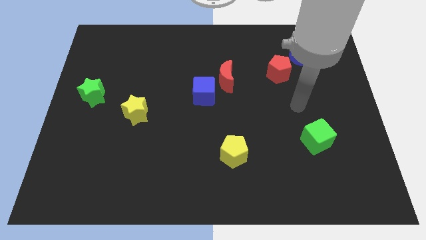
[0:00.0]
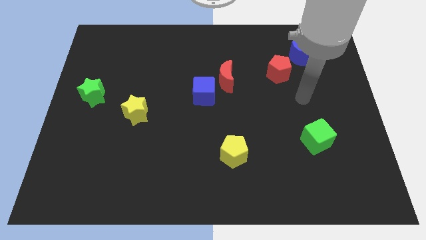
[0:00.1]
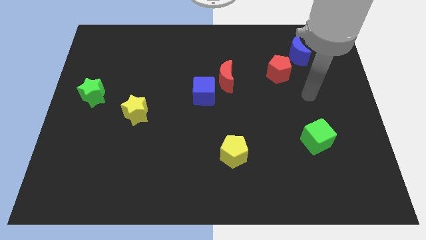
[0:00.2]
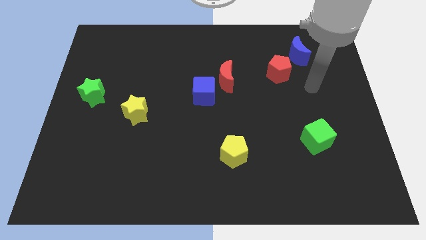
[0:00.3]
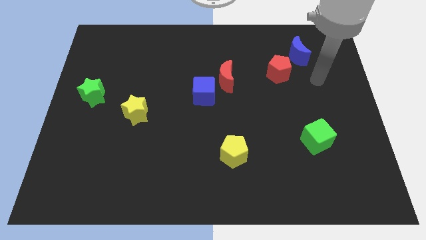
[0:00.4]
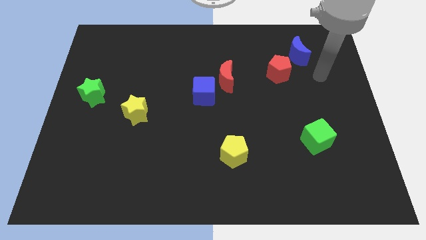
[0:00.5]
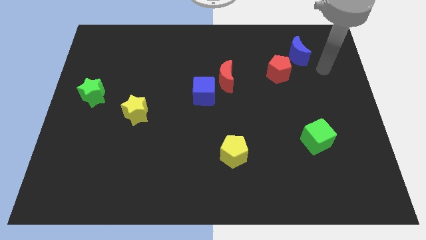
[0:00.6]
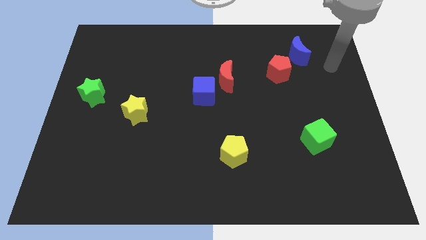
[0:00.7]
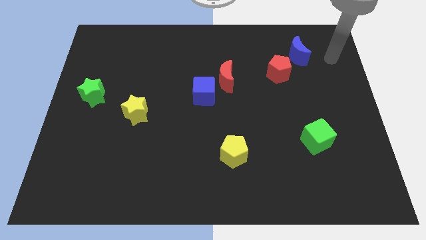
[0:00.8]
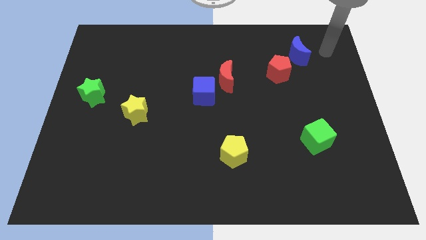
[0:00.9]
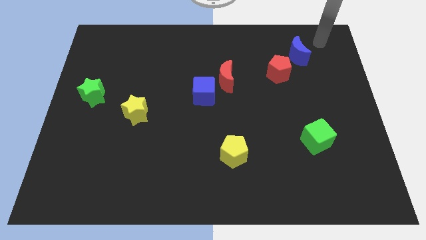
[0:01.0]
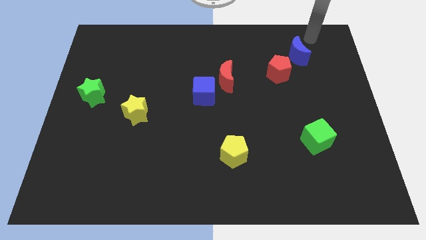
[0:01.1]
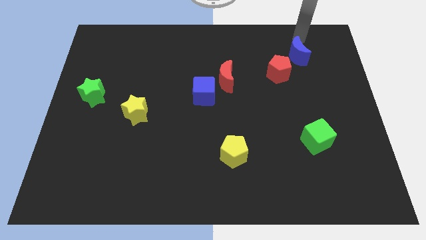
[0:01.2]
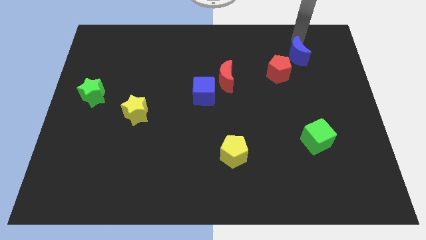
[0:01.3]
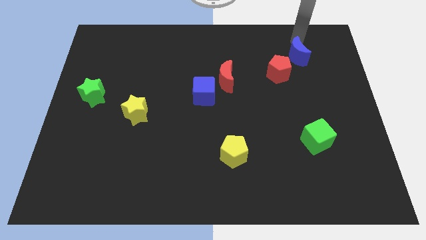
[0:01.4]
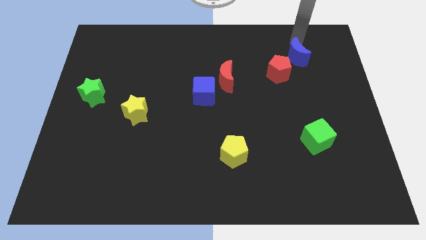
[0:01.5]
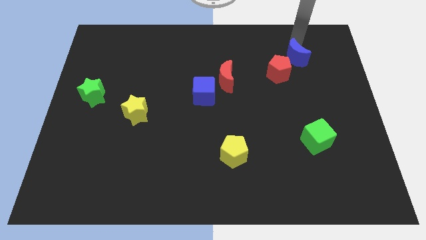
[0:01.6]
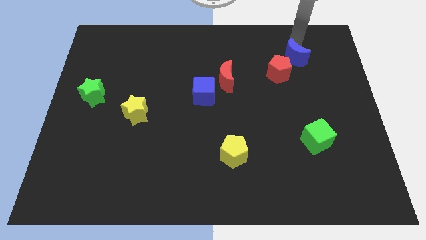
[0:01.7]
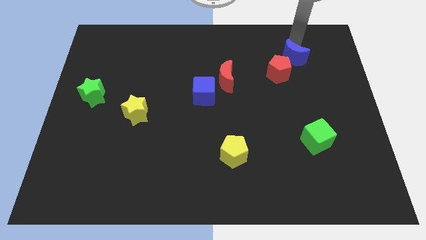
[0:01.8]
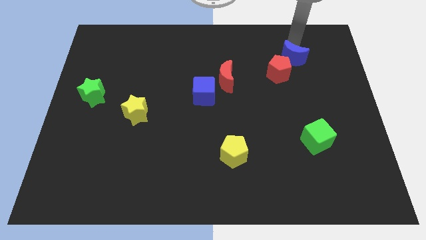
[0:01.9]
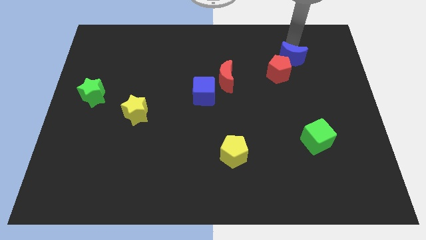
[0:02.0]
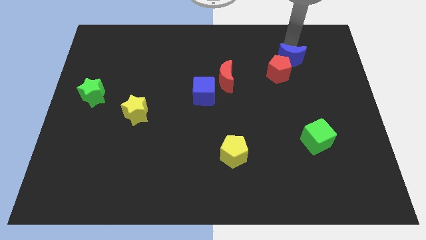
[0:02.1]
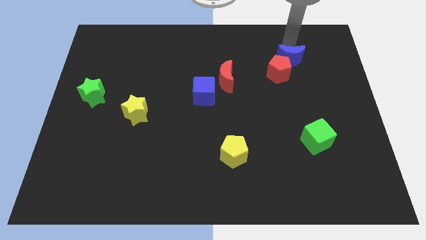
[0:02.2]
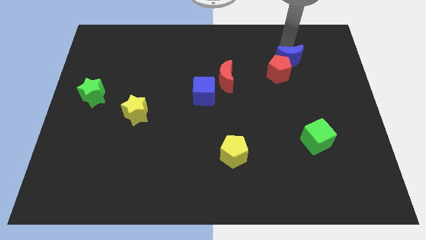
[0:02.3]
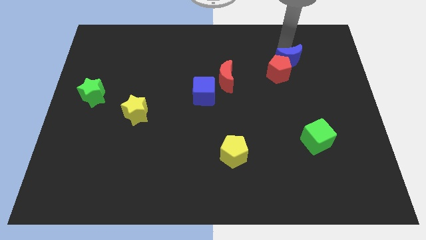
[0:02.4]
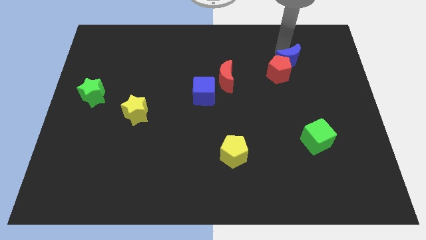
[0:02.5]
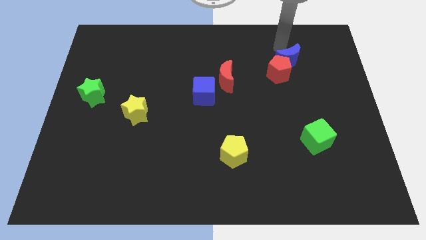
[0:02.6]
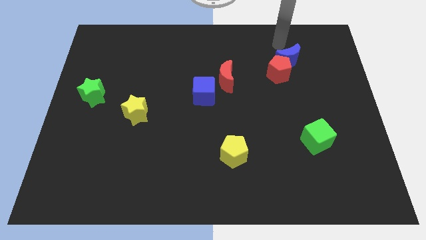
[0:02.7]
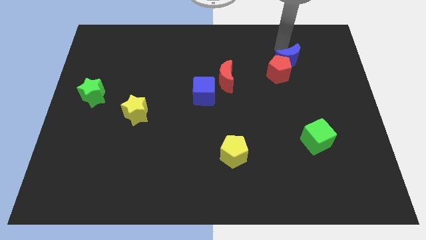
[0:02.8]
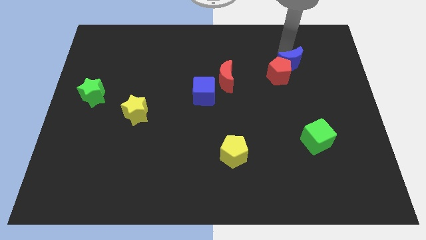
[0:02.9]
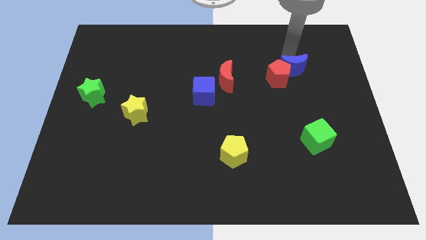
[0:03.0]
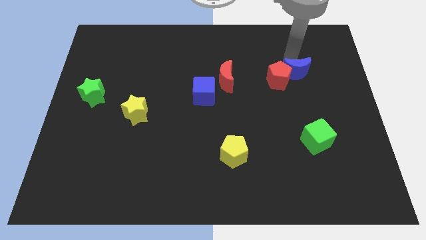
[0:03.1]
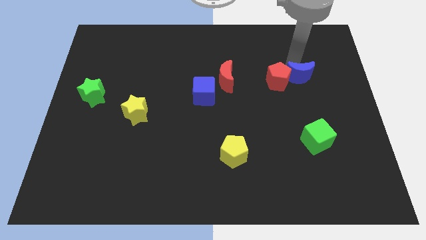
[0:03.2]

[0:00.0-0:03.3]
slightly slide the blue moon down

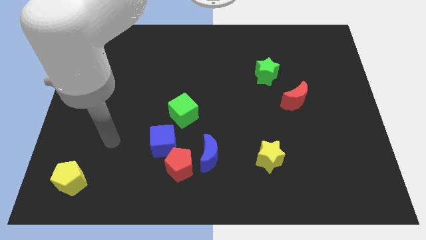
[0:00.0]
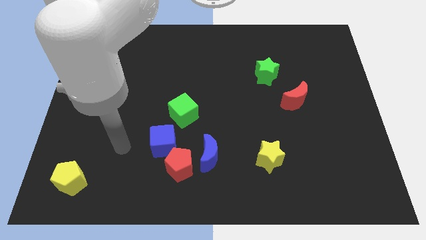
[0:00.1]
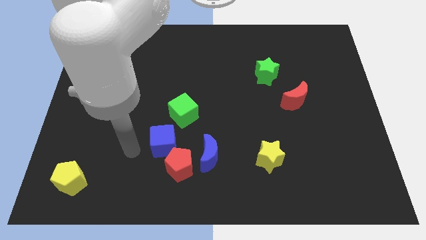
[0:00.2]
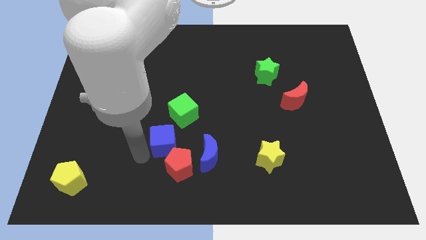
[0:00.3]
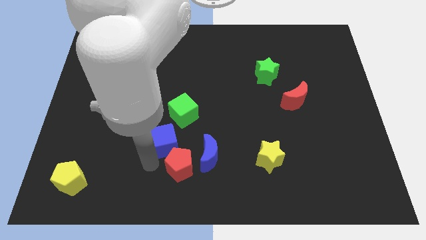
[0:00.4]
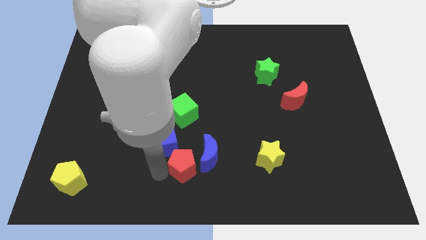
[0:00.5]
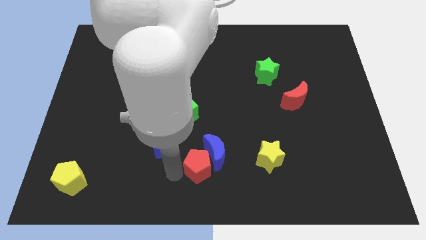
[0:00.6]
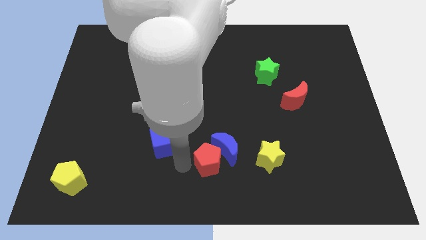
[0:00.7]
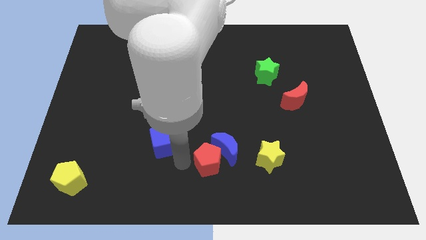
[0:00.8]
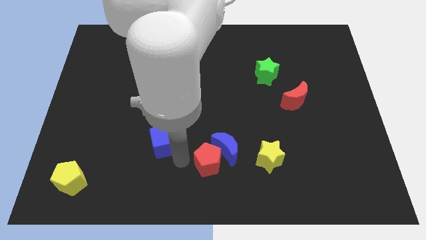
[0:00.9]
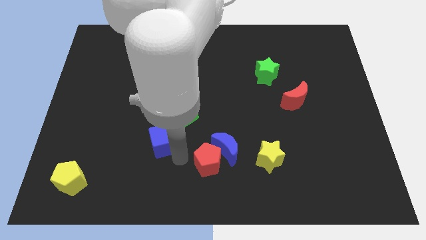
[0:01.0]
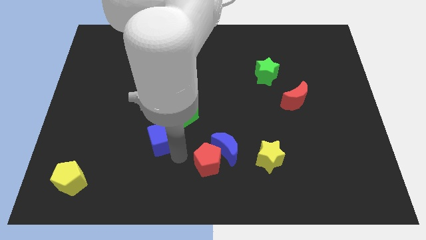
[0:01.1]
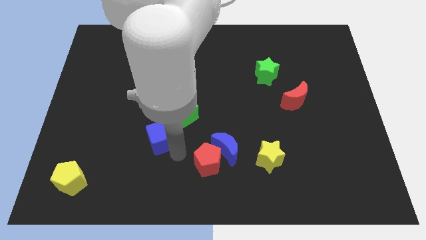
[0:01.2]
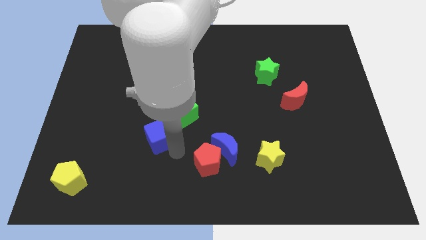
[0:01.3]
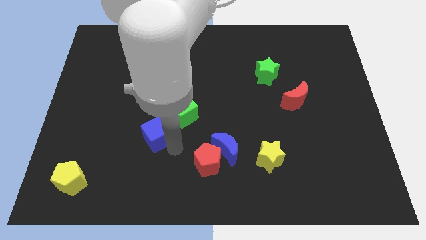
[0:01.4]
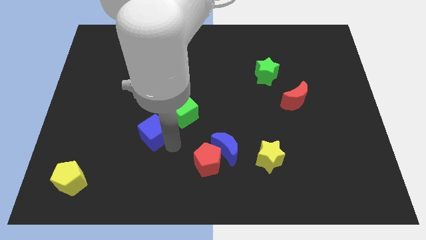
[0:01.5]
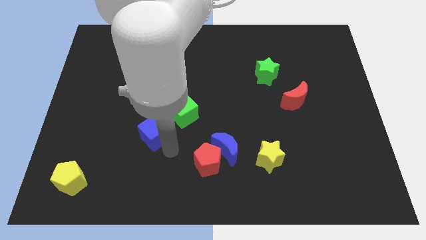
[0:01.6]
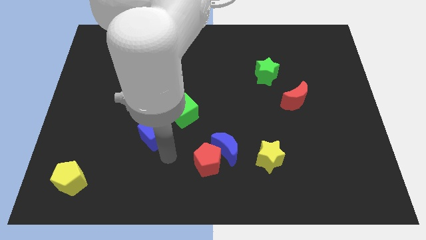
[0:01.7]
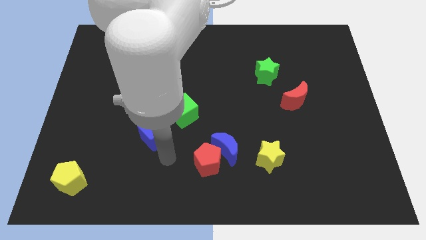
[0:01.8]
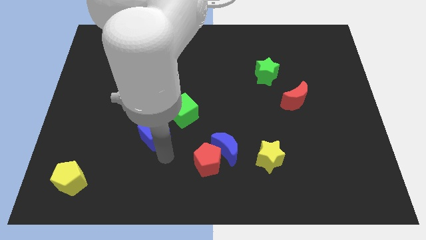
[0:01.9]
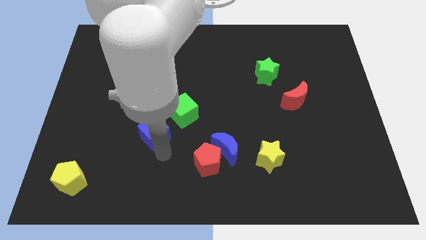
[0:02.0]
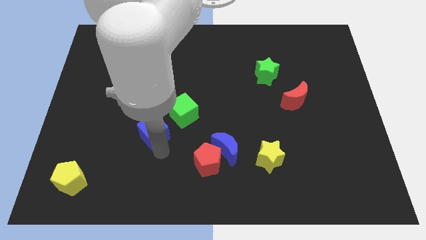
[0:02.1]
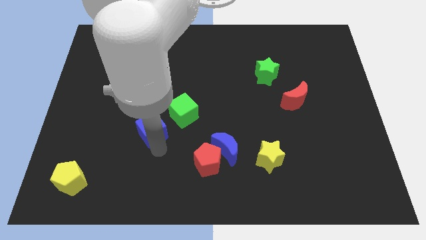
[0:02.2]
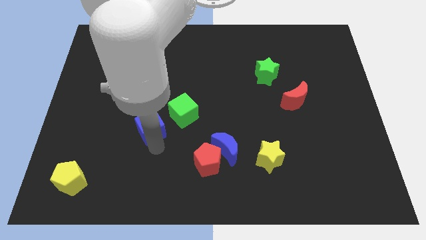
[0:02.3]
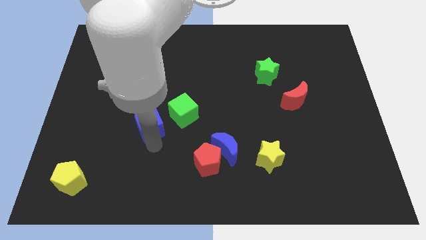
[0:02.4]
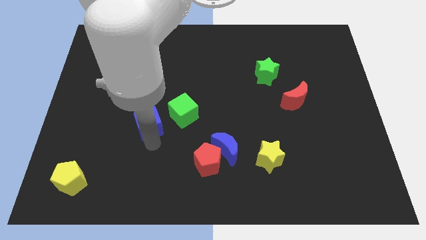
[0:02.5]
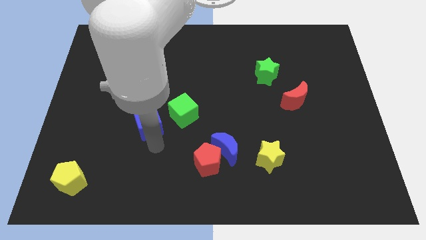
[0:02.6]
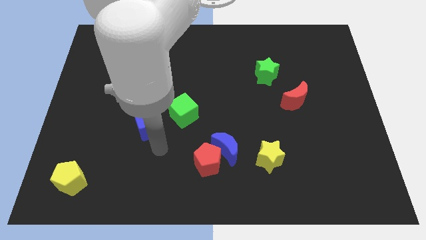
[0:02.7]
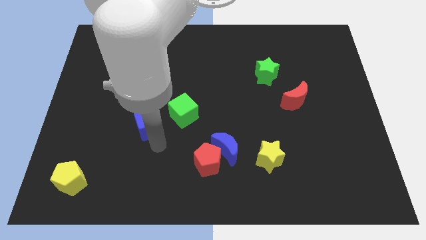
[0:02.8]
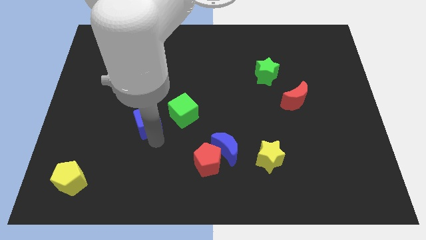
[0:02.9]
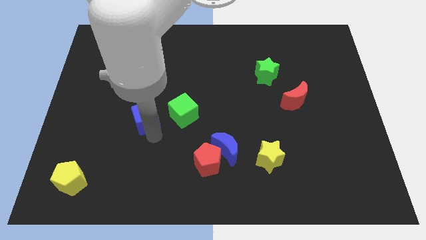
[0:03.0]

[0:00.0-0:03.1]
slightly move the blue cube upwards and to the left diagonally

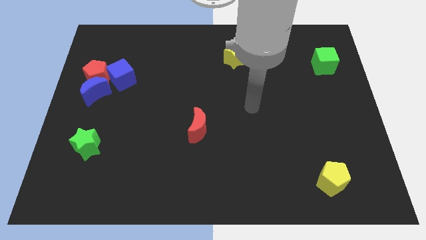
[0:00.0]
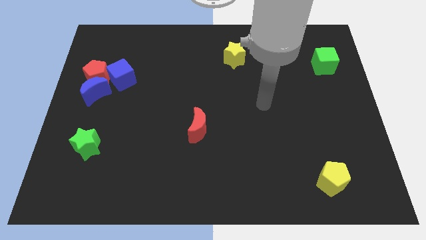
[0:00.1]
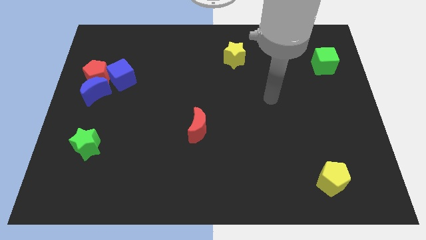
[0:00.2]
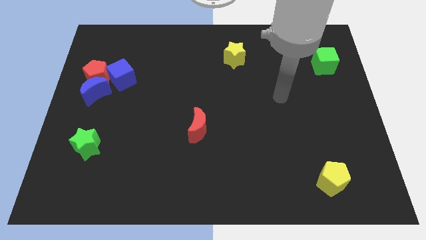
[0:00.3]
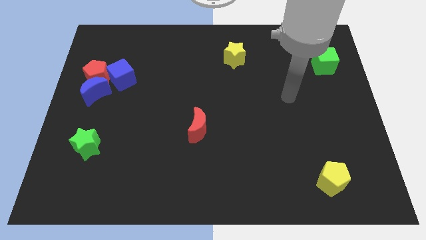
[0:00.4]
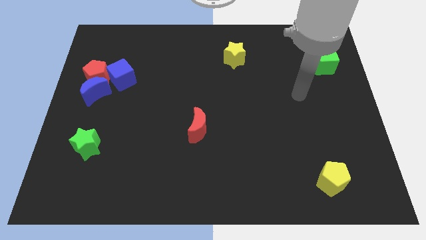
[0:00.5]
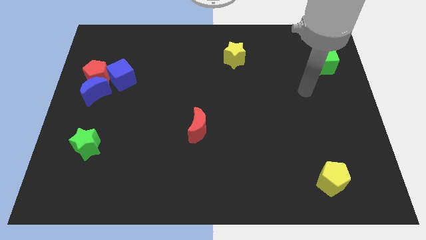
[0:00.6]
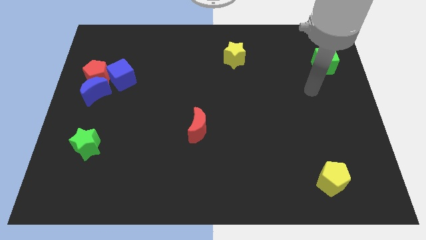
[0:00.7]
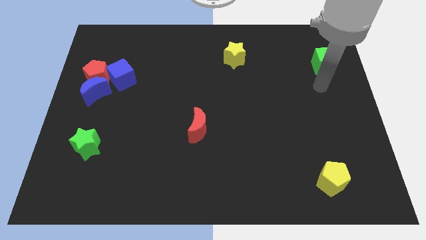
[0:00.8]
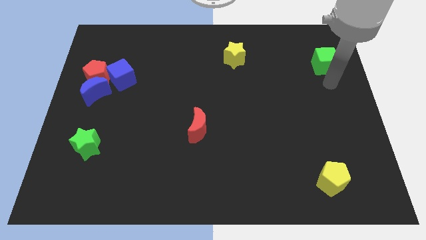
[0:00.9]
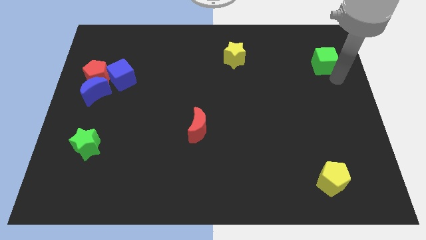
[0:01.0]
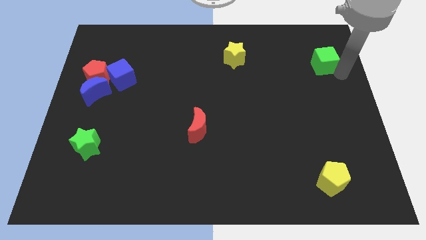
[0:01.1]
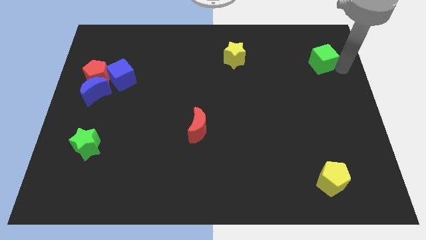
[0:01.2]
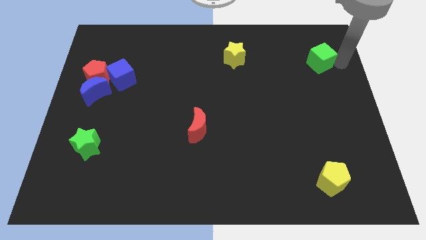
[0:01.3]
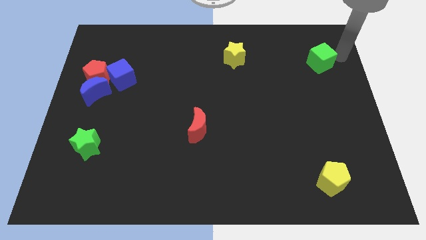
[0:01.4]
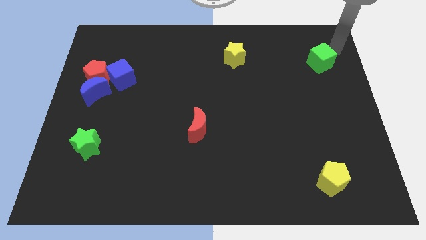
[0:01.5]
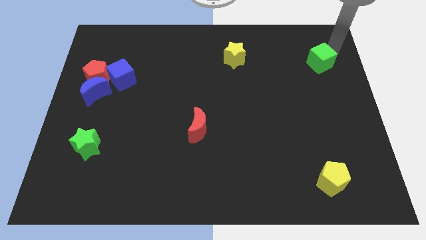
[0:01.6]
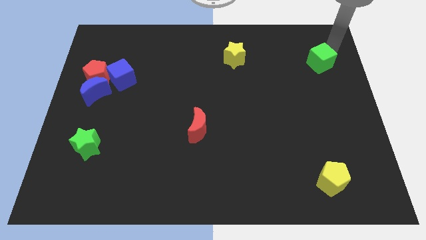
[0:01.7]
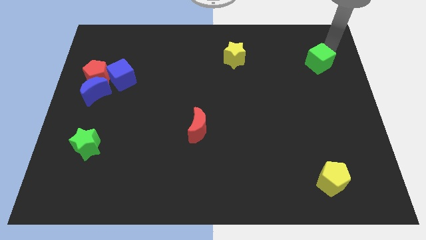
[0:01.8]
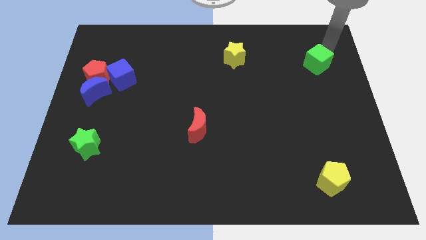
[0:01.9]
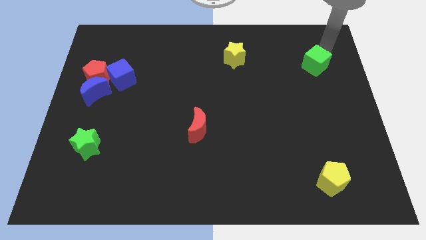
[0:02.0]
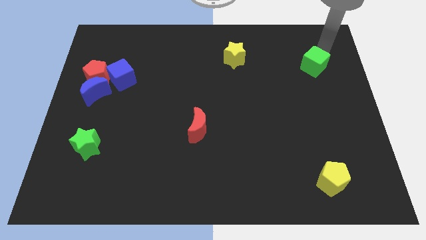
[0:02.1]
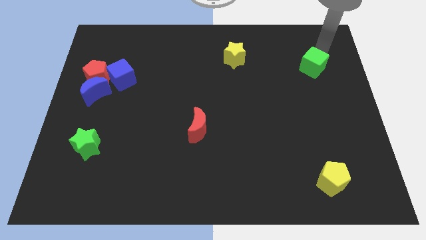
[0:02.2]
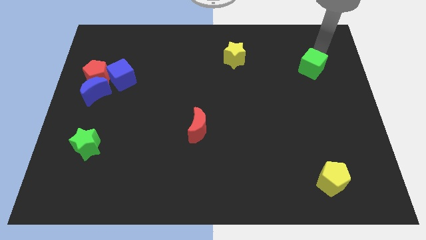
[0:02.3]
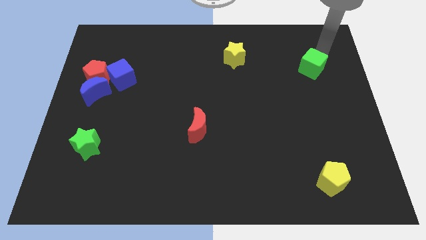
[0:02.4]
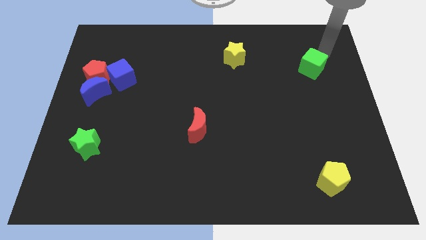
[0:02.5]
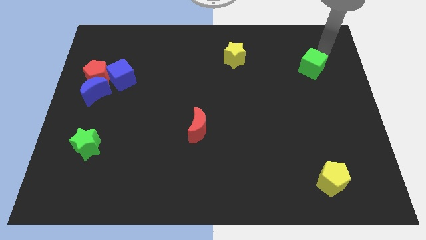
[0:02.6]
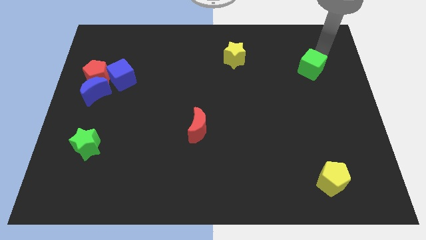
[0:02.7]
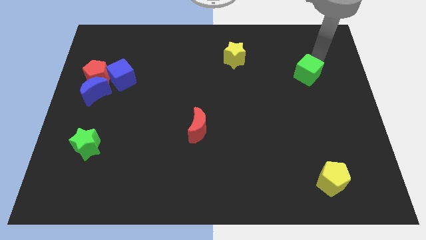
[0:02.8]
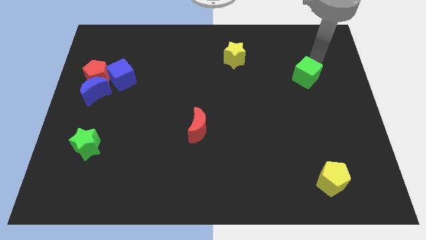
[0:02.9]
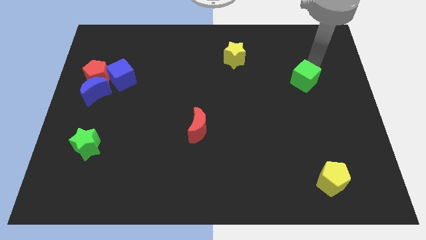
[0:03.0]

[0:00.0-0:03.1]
move the green cube downwards and then left a bit
